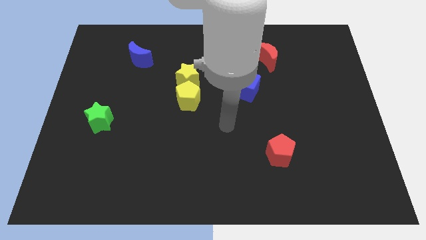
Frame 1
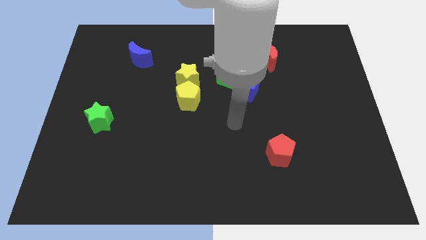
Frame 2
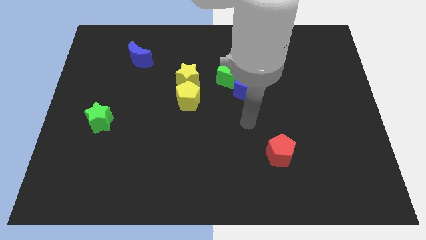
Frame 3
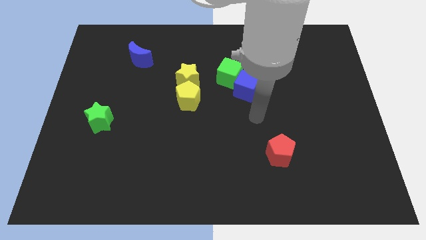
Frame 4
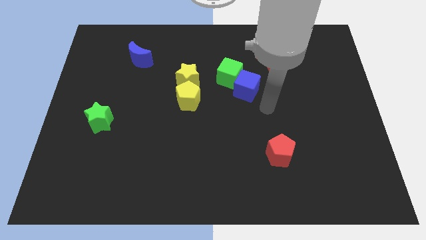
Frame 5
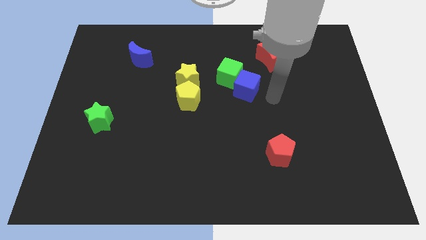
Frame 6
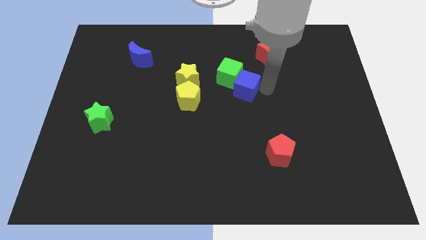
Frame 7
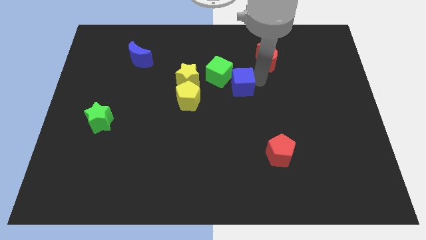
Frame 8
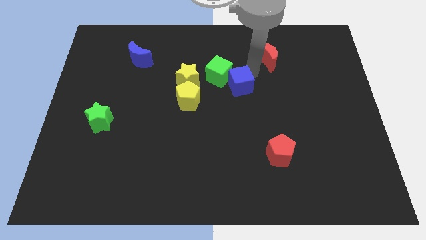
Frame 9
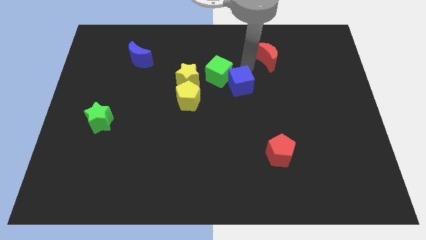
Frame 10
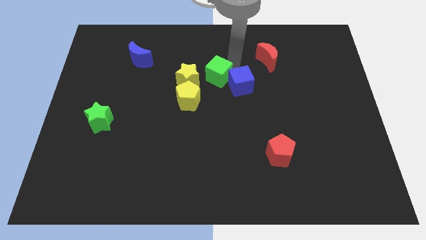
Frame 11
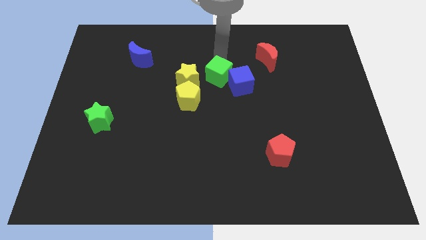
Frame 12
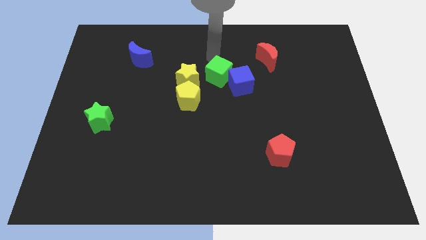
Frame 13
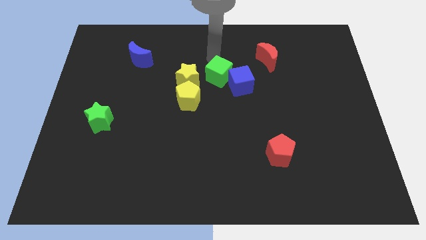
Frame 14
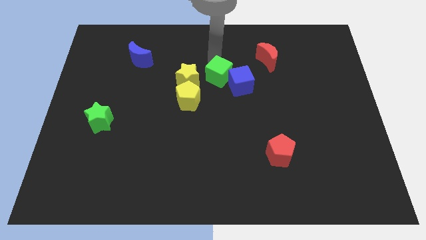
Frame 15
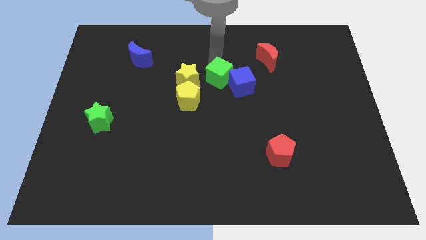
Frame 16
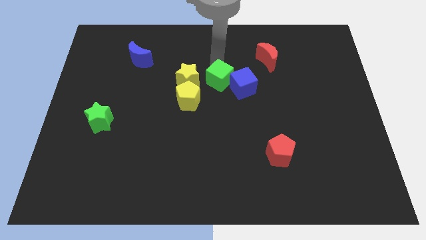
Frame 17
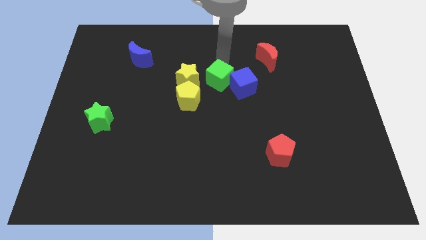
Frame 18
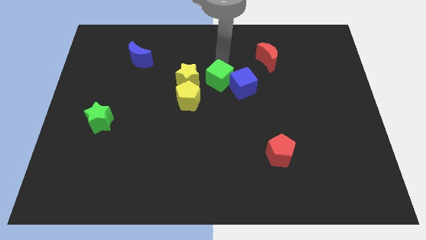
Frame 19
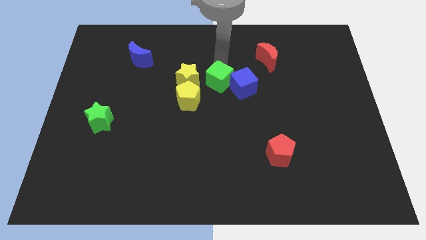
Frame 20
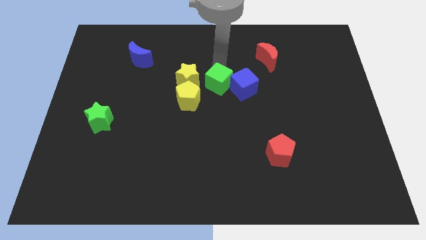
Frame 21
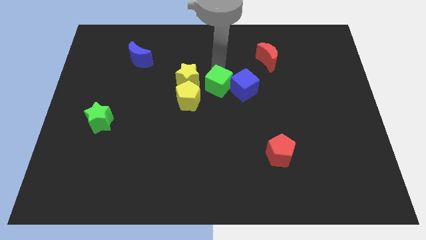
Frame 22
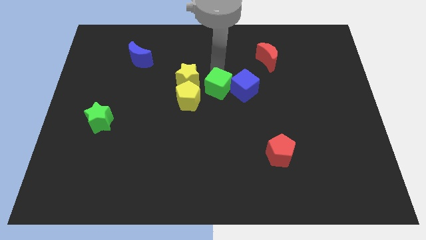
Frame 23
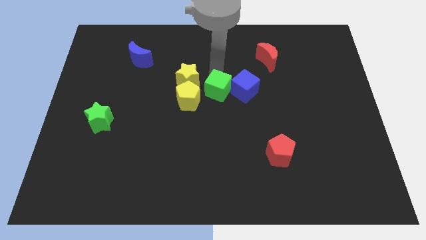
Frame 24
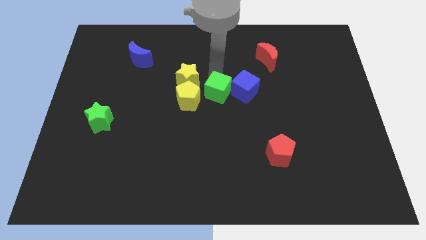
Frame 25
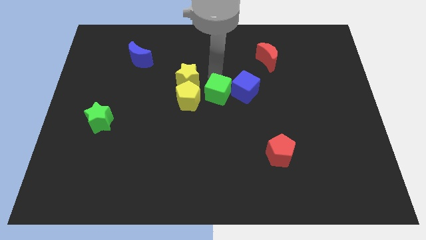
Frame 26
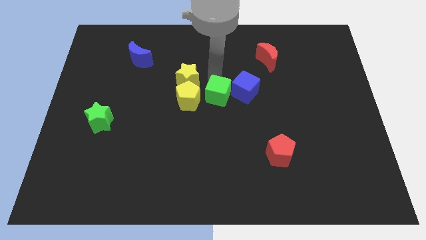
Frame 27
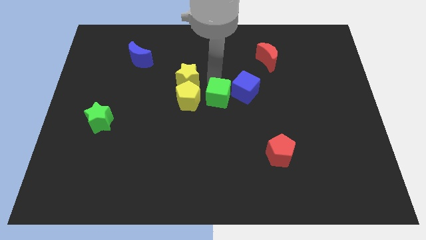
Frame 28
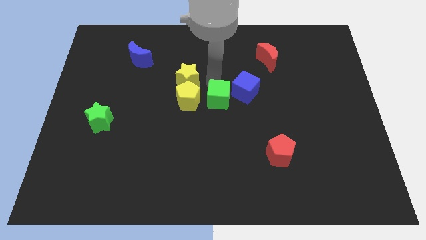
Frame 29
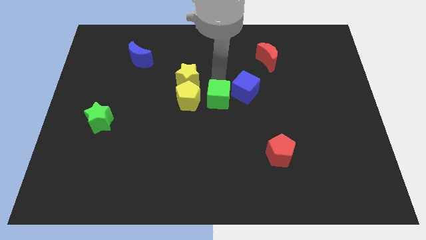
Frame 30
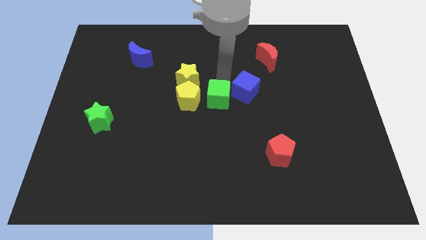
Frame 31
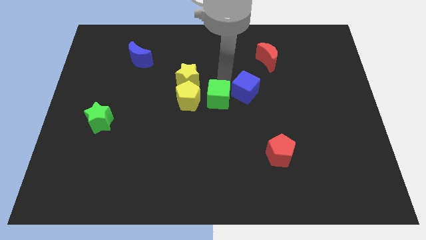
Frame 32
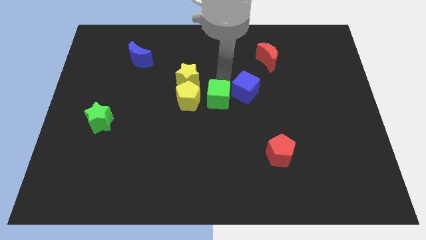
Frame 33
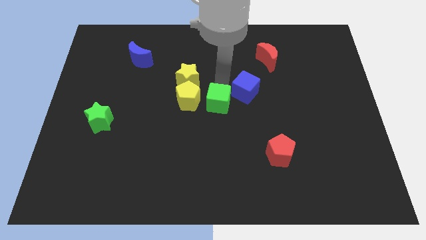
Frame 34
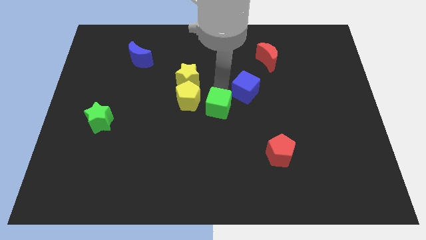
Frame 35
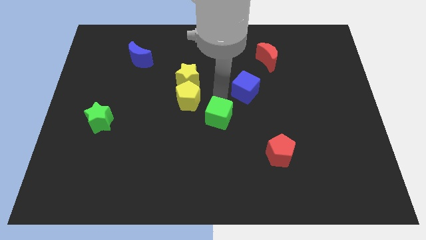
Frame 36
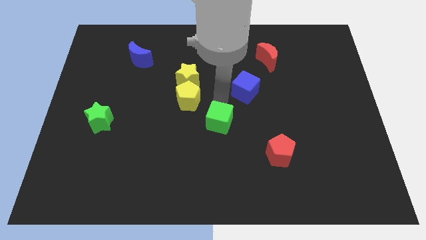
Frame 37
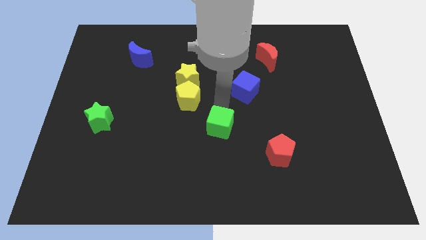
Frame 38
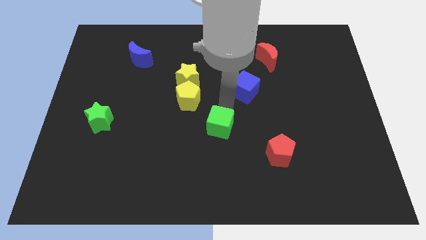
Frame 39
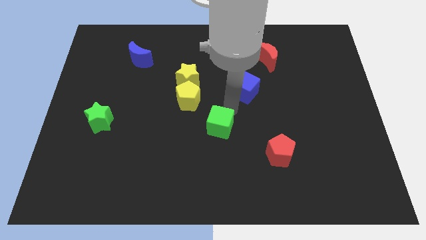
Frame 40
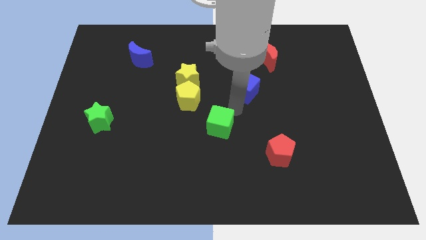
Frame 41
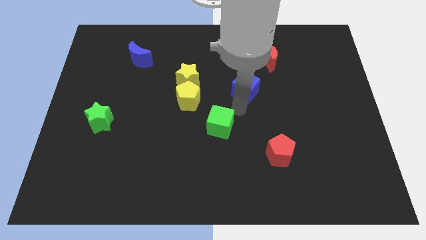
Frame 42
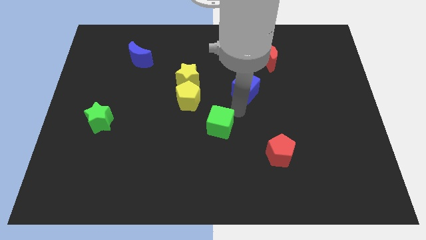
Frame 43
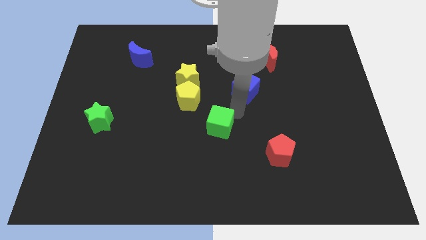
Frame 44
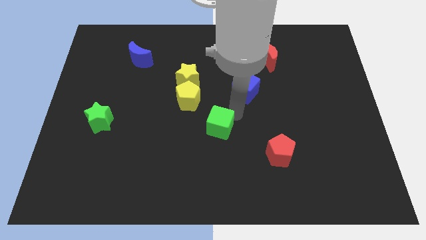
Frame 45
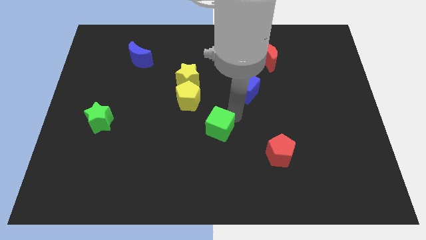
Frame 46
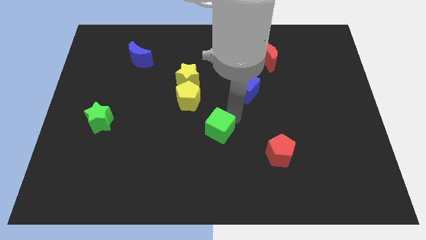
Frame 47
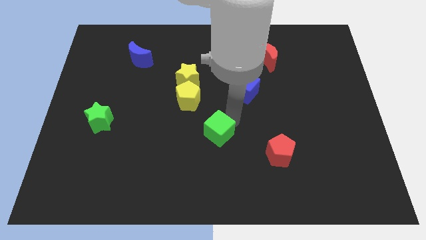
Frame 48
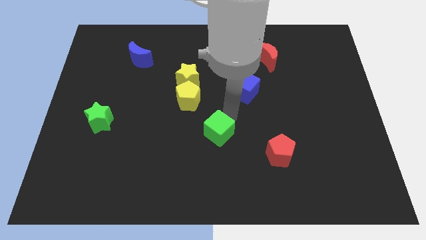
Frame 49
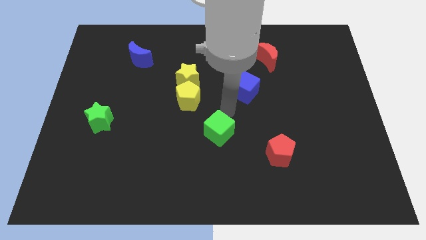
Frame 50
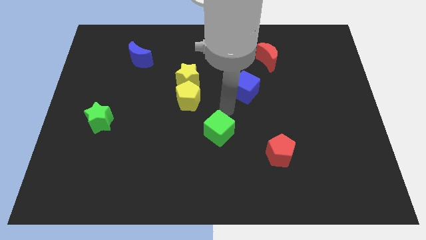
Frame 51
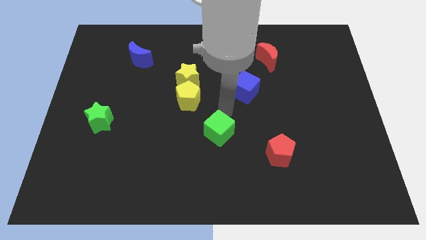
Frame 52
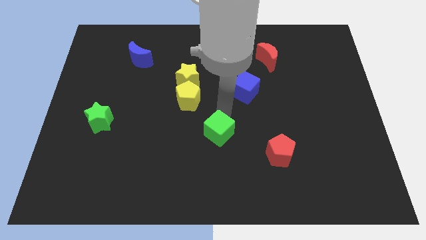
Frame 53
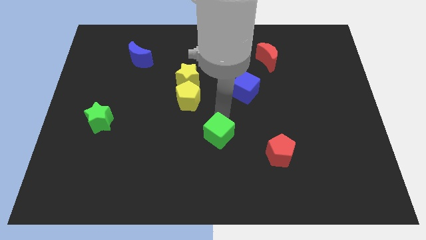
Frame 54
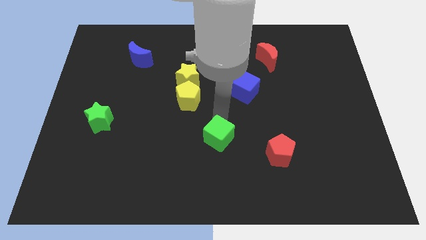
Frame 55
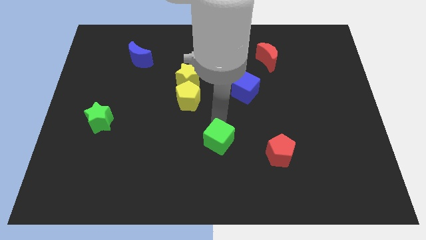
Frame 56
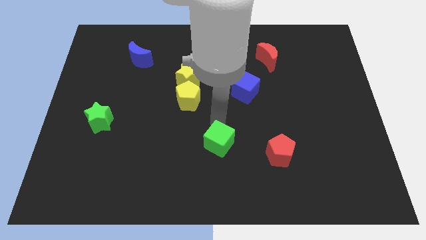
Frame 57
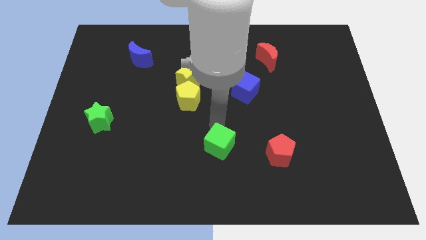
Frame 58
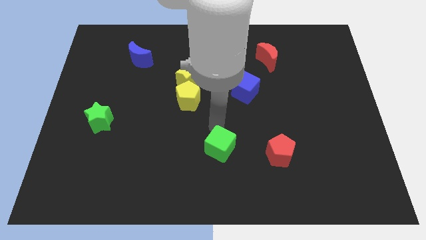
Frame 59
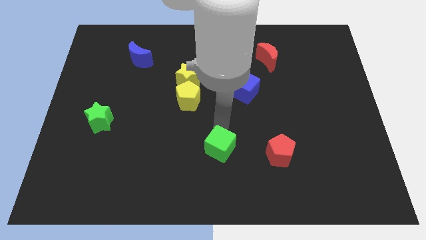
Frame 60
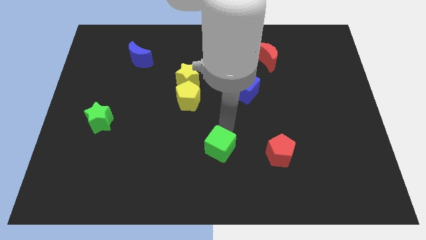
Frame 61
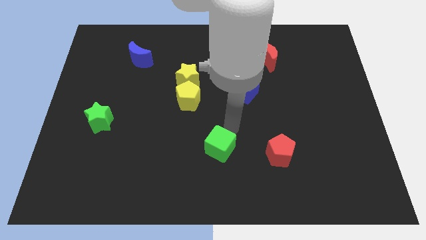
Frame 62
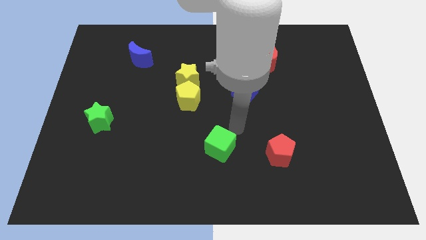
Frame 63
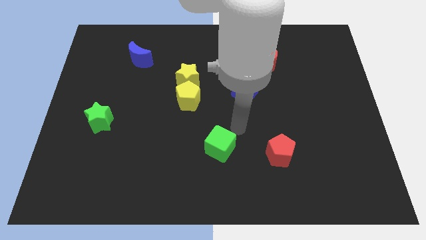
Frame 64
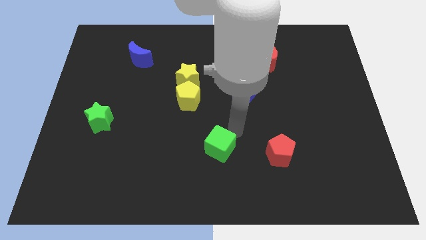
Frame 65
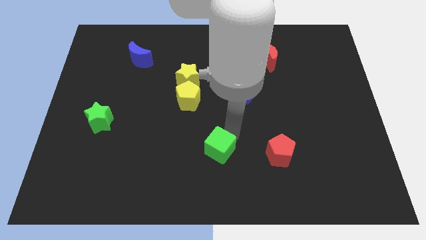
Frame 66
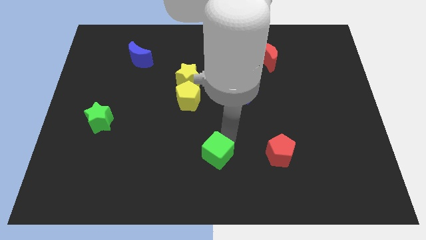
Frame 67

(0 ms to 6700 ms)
put the green cube to the bottom side
